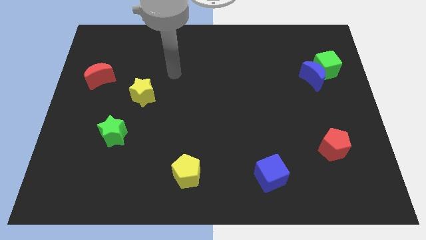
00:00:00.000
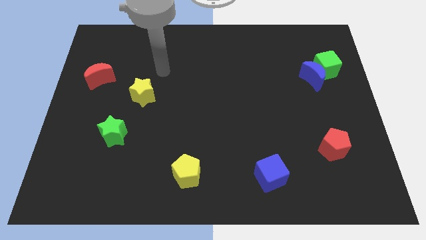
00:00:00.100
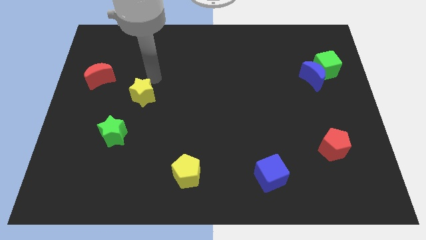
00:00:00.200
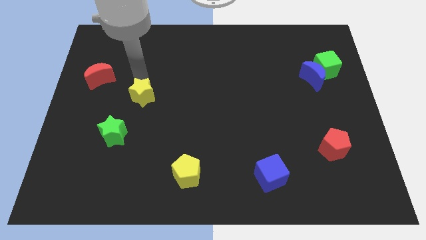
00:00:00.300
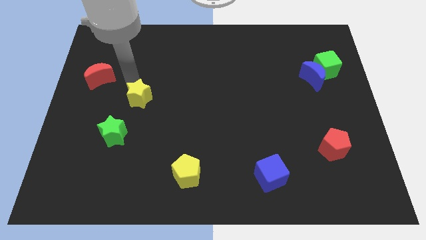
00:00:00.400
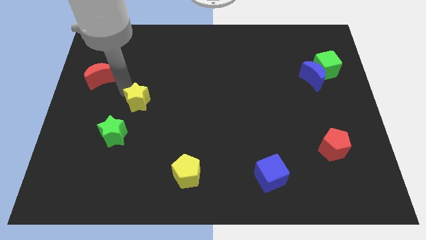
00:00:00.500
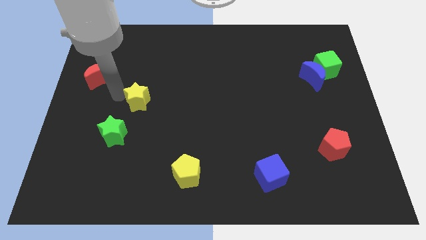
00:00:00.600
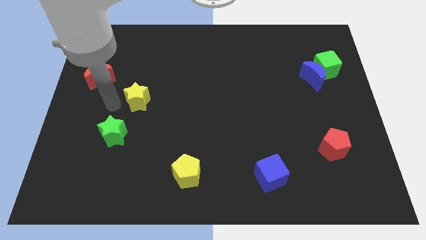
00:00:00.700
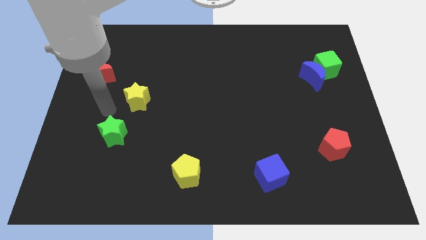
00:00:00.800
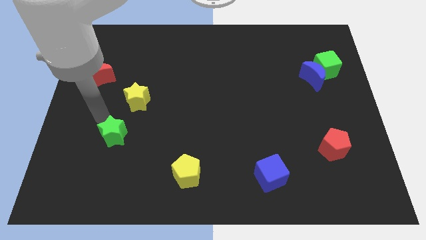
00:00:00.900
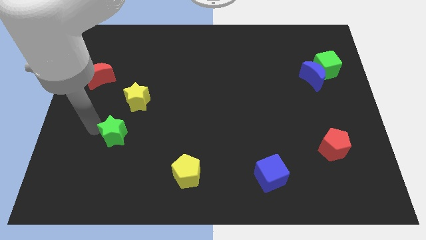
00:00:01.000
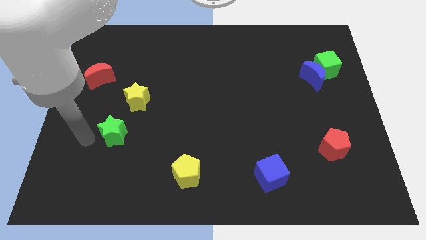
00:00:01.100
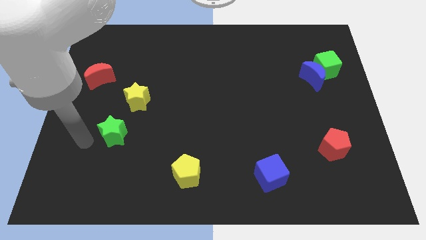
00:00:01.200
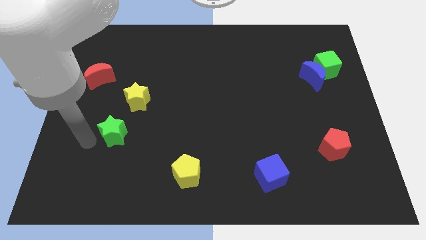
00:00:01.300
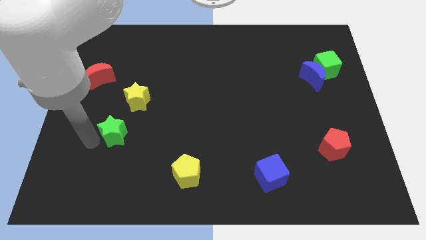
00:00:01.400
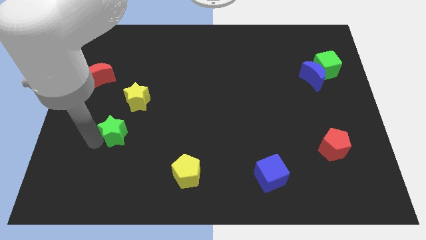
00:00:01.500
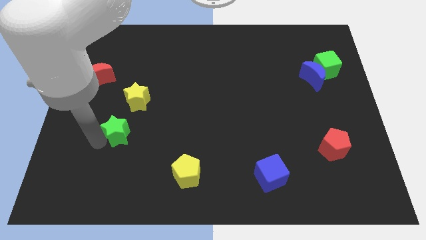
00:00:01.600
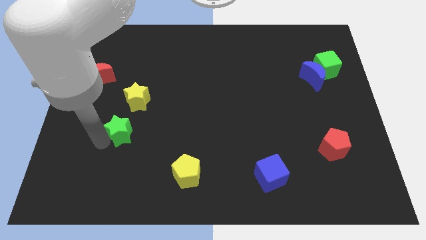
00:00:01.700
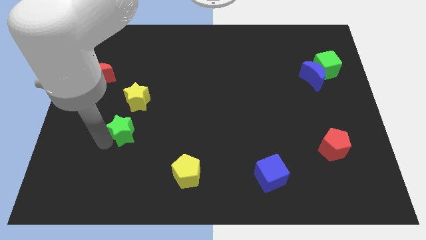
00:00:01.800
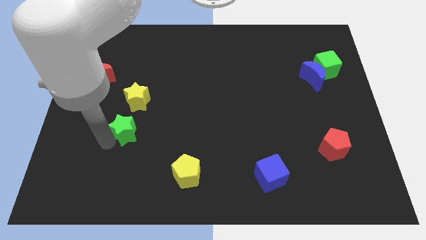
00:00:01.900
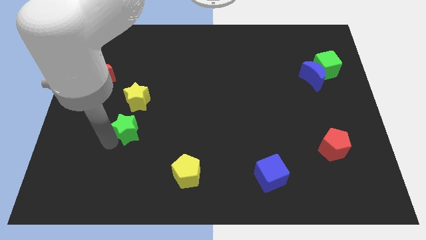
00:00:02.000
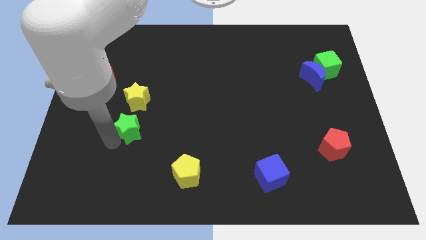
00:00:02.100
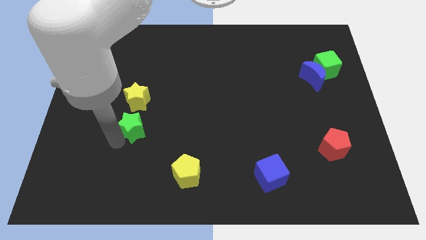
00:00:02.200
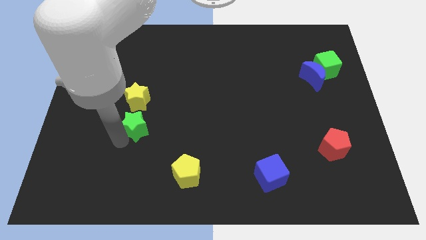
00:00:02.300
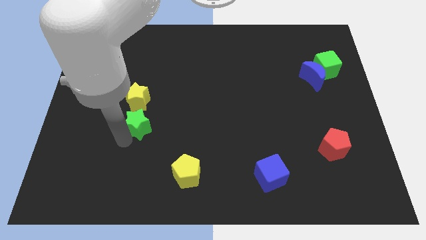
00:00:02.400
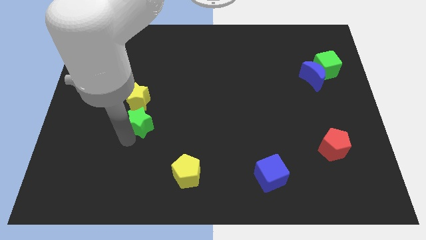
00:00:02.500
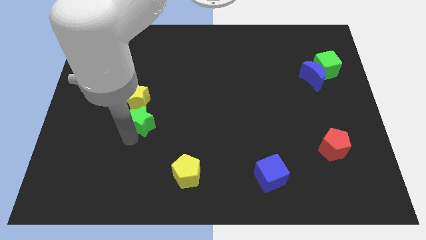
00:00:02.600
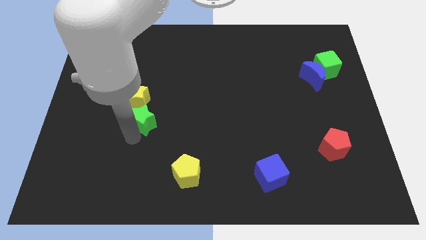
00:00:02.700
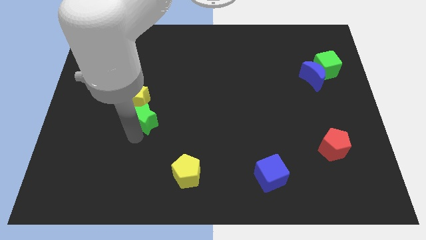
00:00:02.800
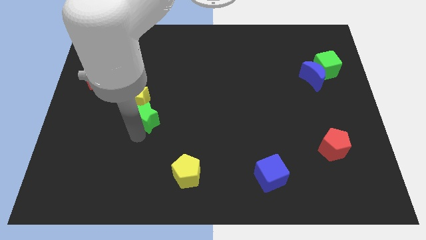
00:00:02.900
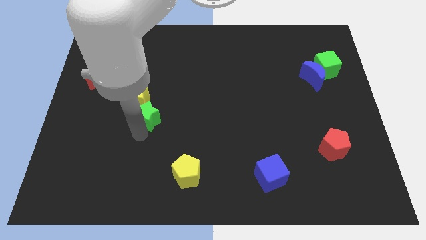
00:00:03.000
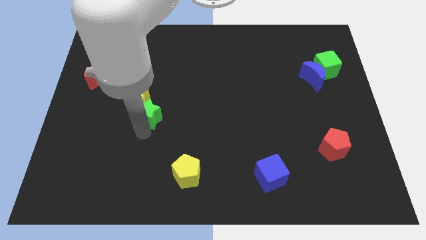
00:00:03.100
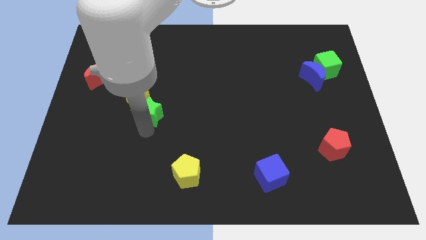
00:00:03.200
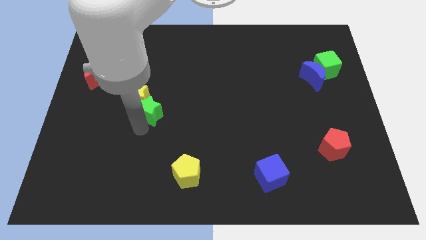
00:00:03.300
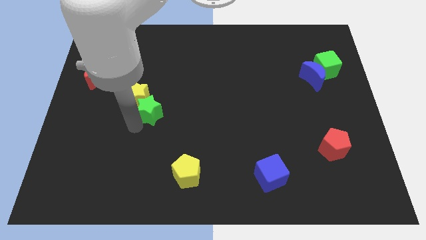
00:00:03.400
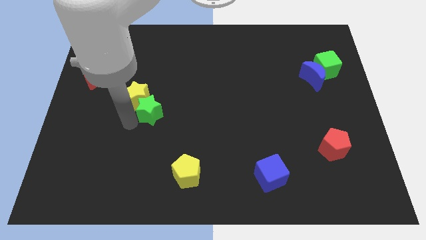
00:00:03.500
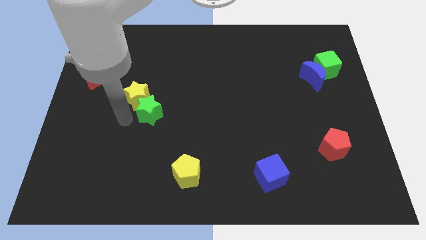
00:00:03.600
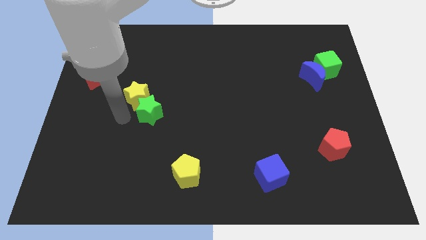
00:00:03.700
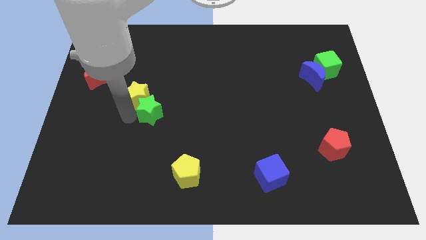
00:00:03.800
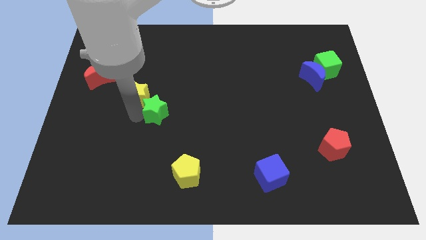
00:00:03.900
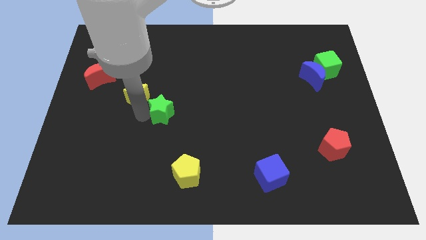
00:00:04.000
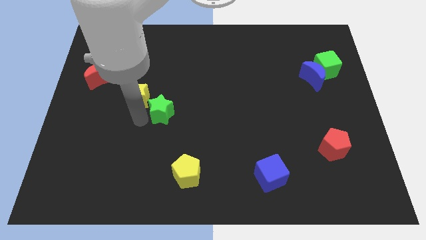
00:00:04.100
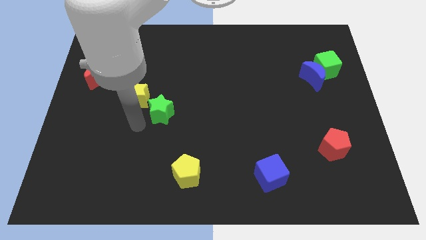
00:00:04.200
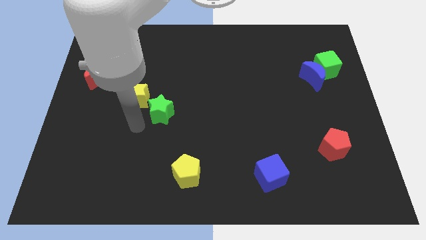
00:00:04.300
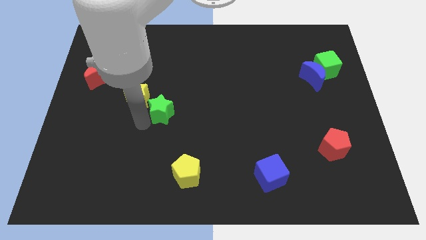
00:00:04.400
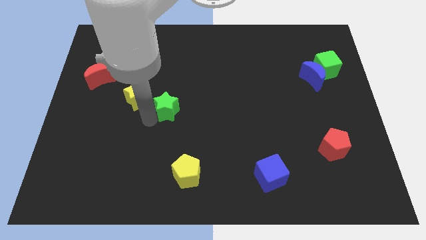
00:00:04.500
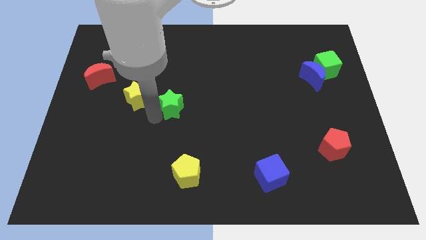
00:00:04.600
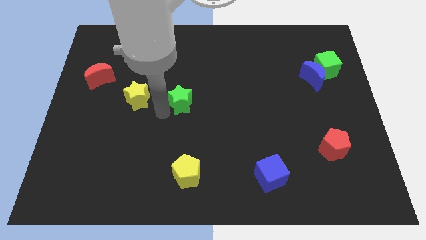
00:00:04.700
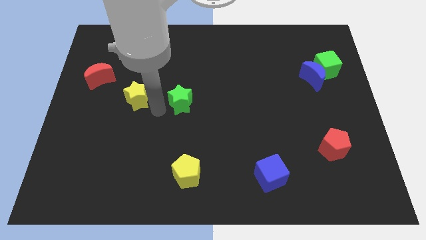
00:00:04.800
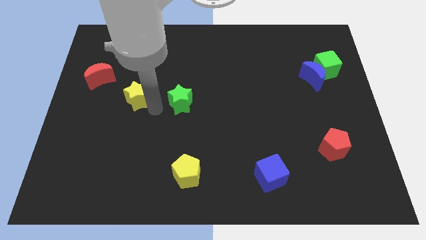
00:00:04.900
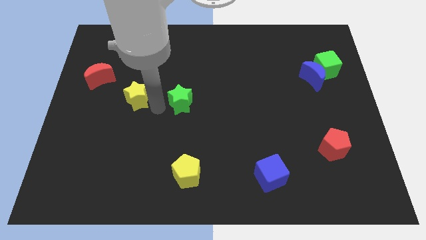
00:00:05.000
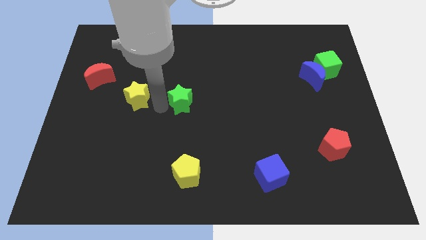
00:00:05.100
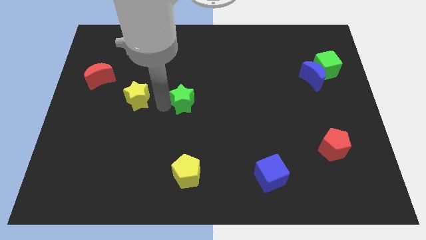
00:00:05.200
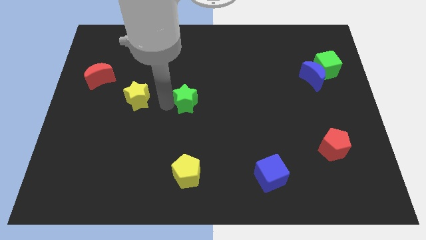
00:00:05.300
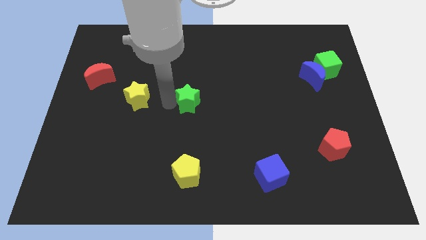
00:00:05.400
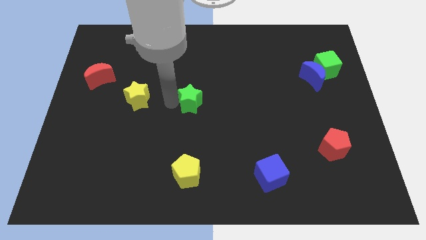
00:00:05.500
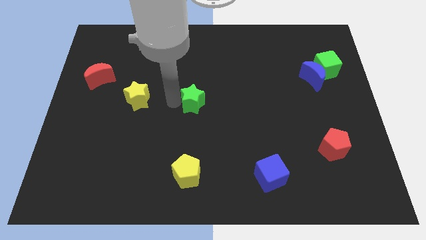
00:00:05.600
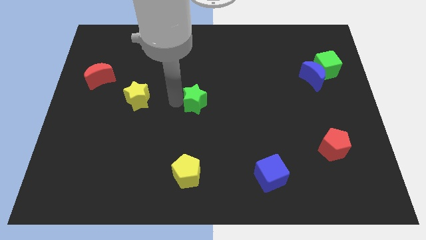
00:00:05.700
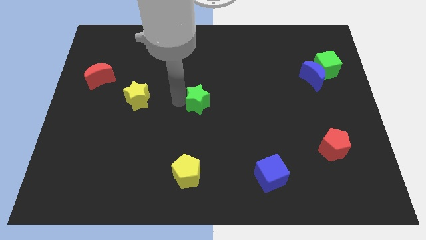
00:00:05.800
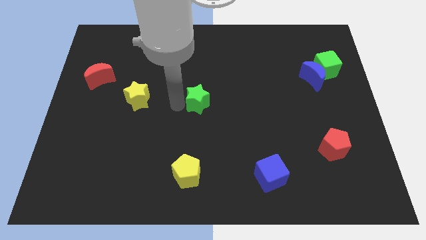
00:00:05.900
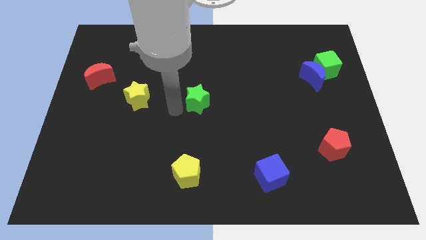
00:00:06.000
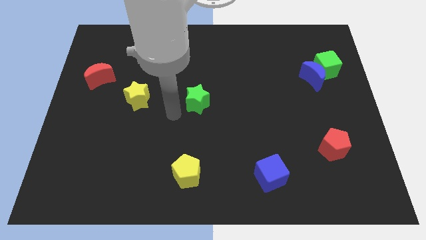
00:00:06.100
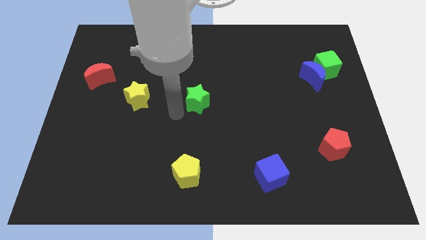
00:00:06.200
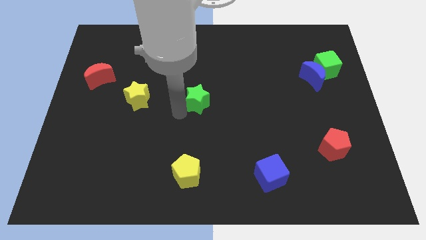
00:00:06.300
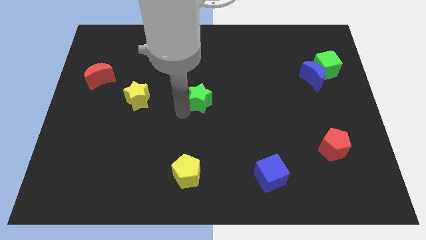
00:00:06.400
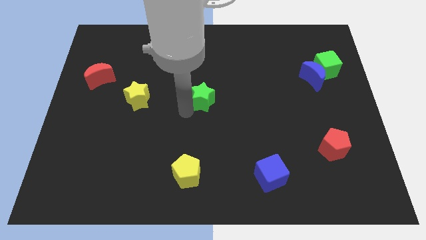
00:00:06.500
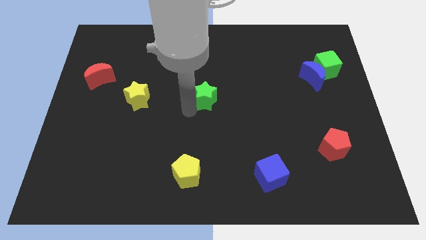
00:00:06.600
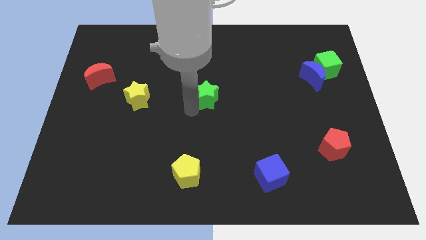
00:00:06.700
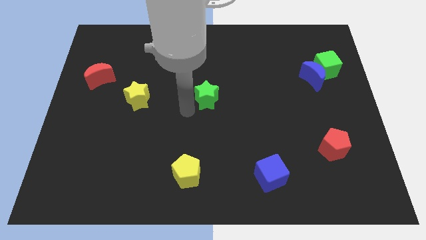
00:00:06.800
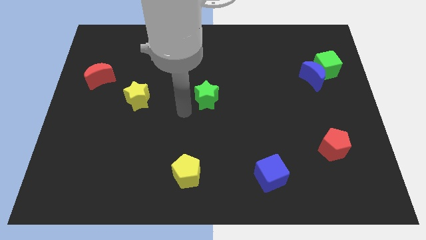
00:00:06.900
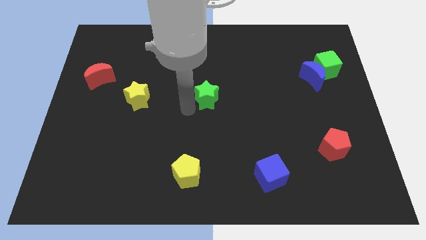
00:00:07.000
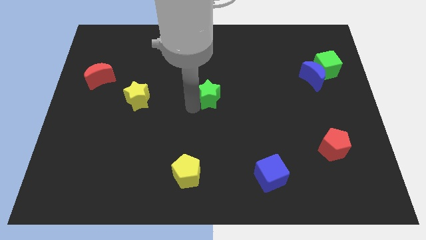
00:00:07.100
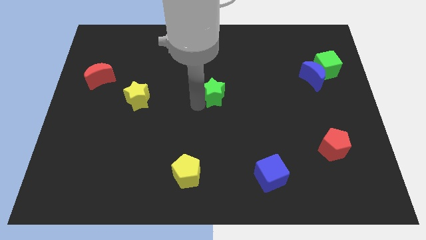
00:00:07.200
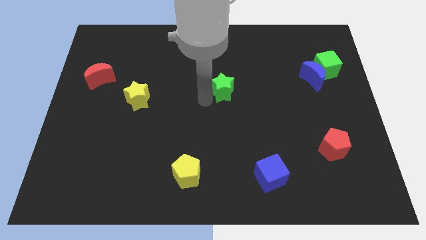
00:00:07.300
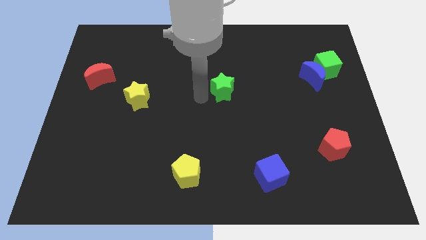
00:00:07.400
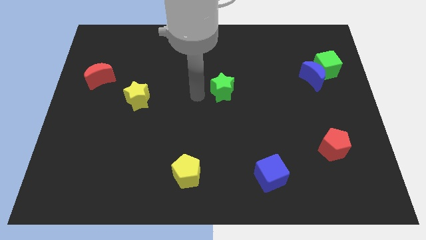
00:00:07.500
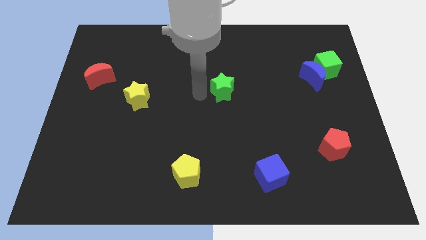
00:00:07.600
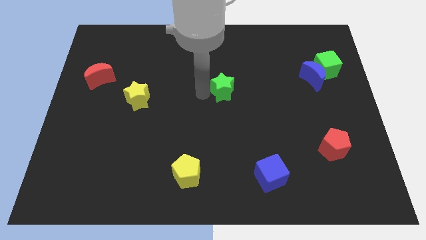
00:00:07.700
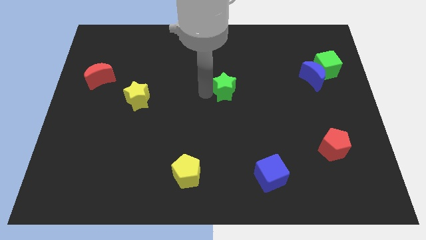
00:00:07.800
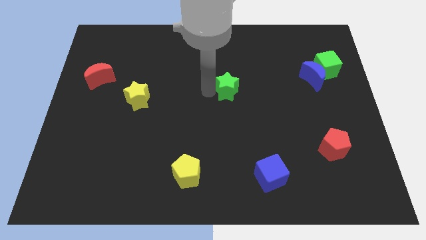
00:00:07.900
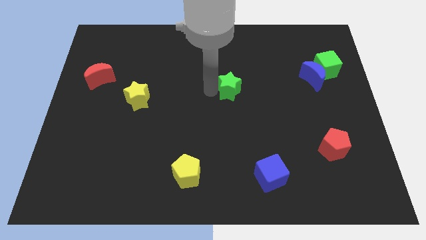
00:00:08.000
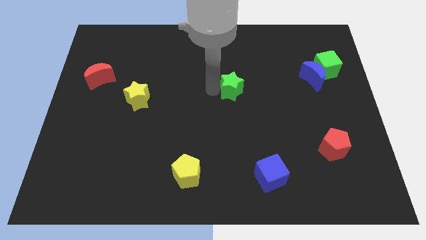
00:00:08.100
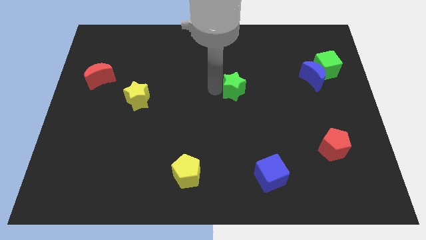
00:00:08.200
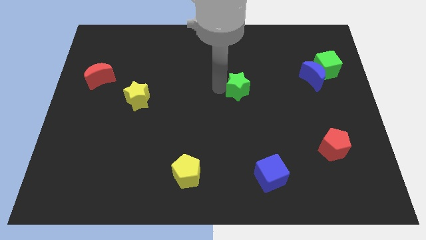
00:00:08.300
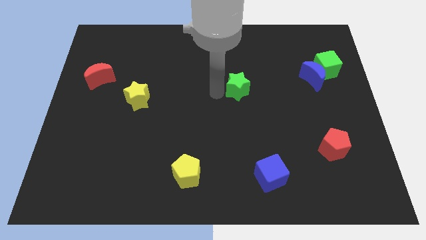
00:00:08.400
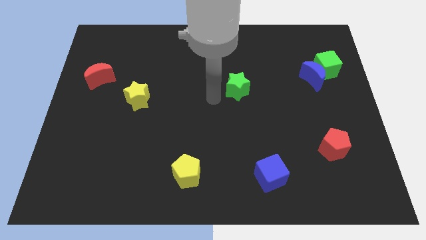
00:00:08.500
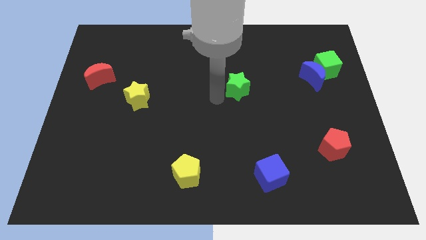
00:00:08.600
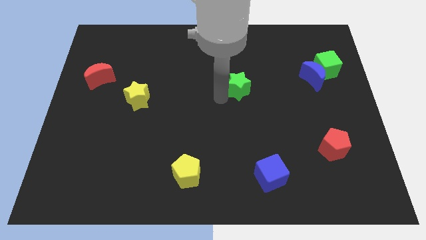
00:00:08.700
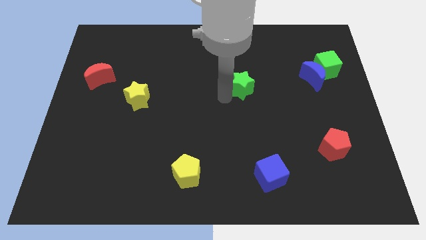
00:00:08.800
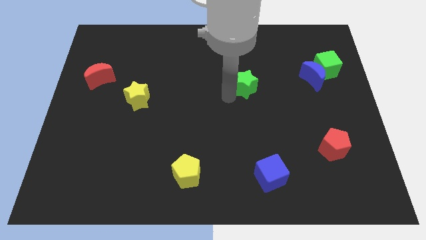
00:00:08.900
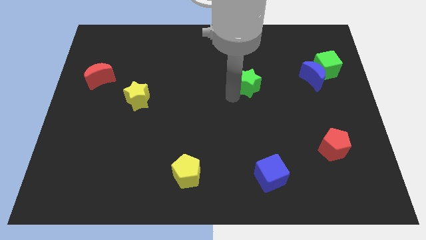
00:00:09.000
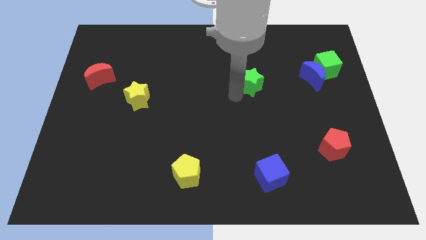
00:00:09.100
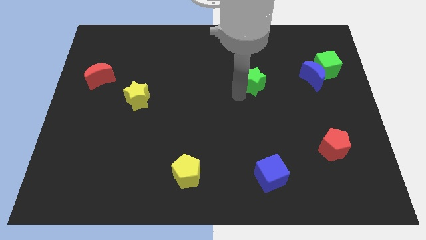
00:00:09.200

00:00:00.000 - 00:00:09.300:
slide the green star left of the blue moon
